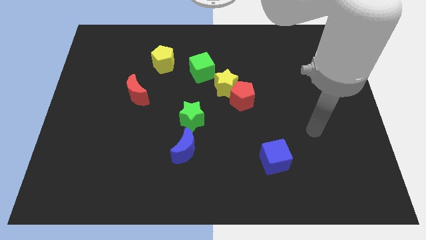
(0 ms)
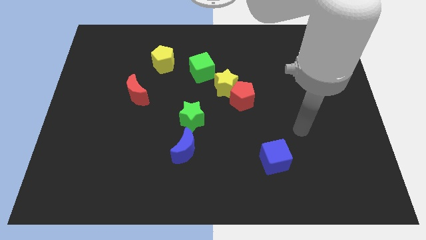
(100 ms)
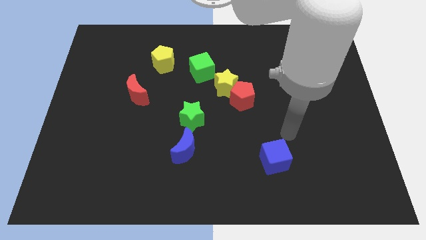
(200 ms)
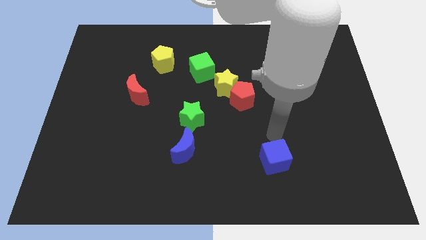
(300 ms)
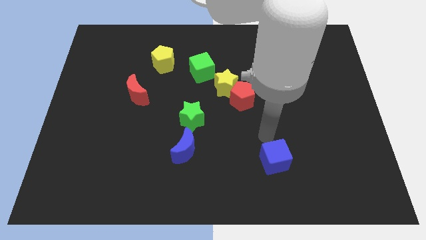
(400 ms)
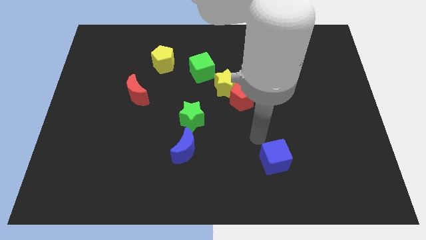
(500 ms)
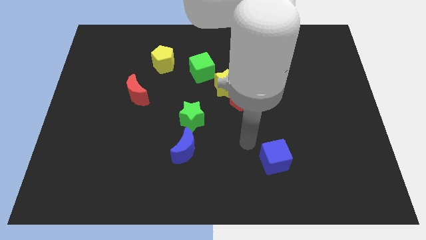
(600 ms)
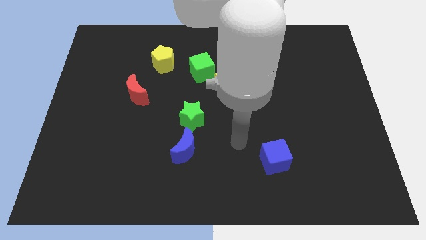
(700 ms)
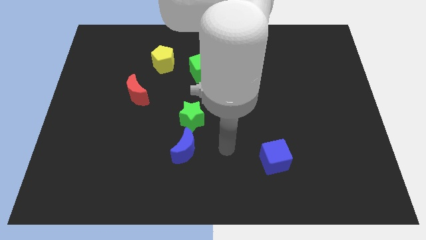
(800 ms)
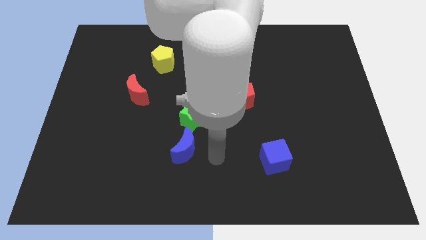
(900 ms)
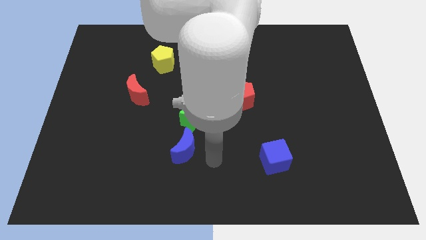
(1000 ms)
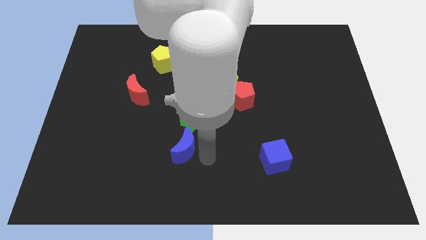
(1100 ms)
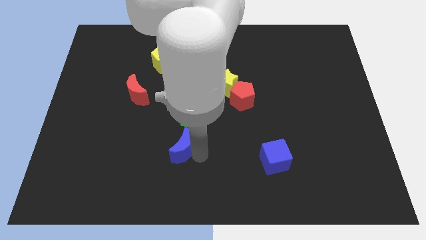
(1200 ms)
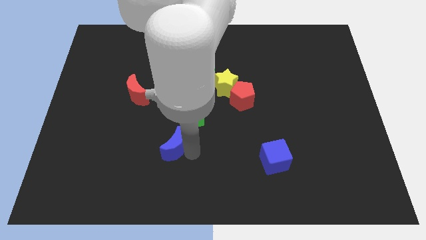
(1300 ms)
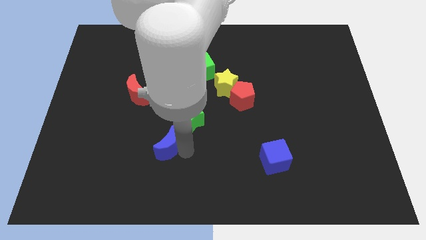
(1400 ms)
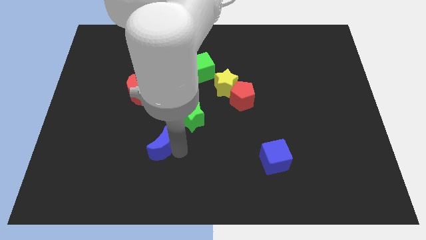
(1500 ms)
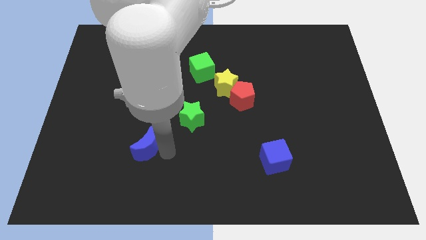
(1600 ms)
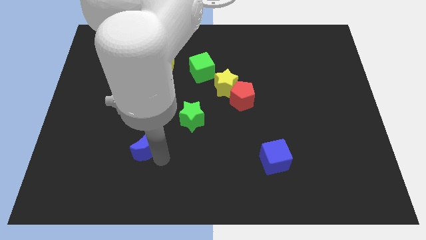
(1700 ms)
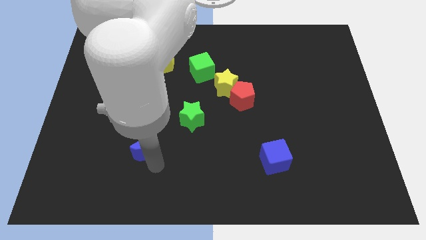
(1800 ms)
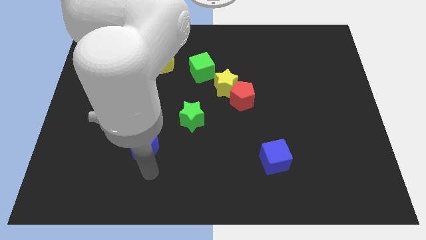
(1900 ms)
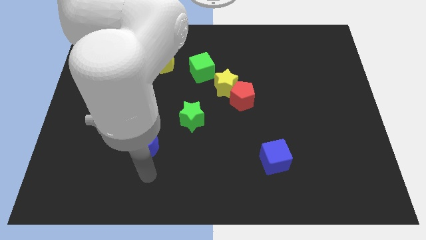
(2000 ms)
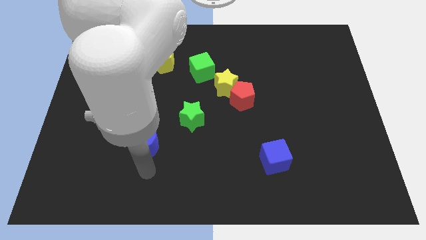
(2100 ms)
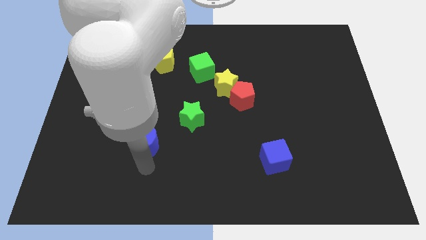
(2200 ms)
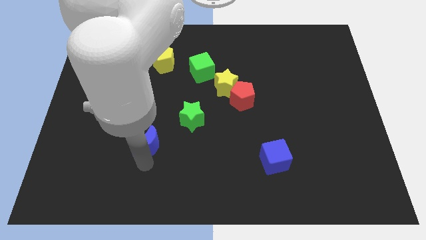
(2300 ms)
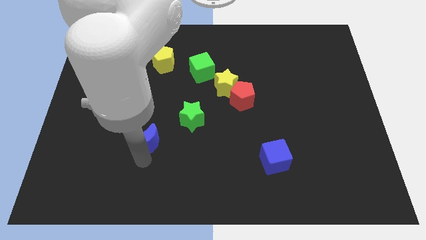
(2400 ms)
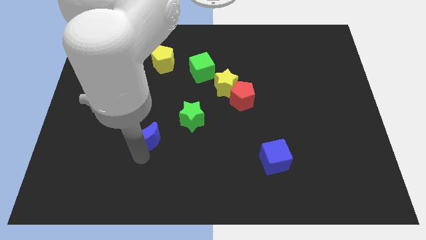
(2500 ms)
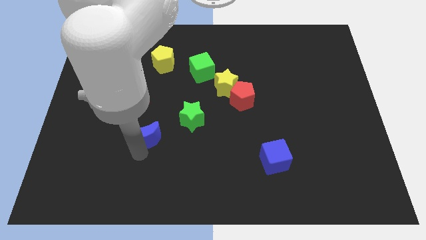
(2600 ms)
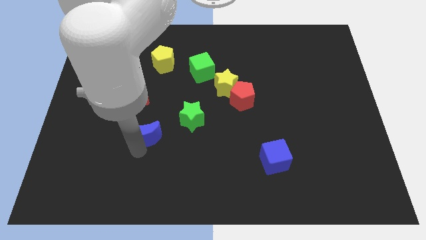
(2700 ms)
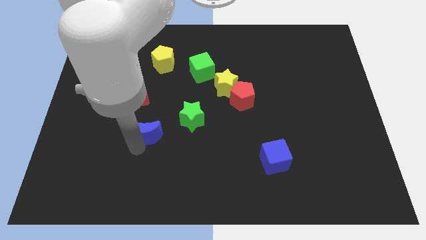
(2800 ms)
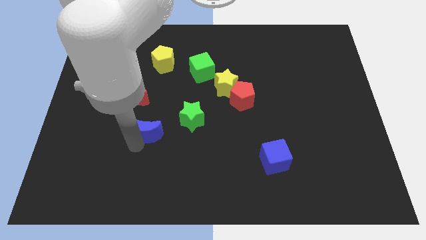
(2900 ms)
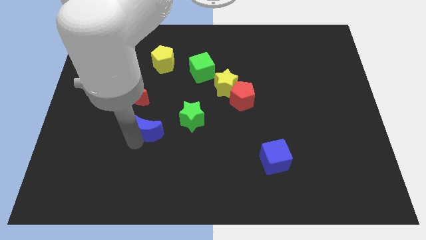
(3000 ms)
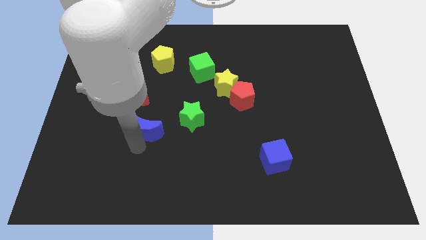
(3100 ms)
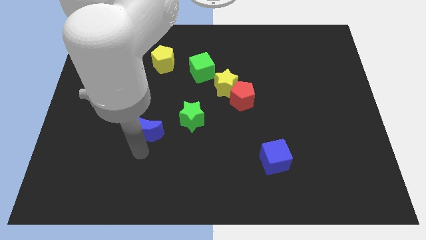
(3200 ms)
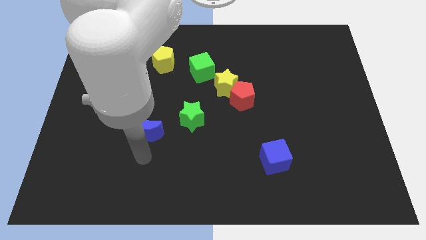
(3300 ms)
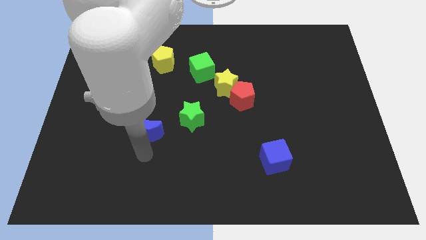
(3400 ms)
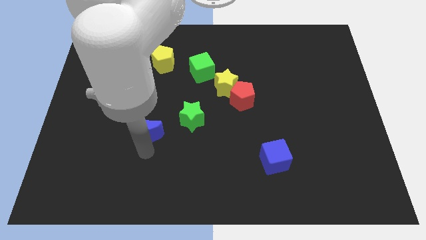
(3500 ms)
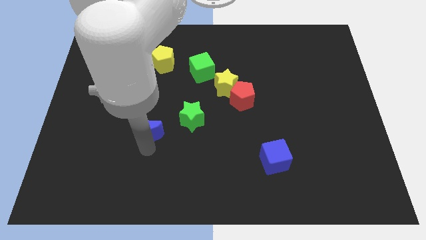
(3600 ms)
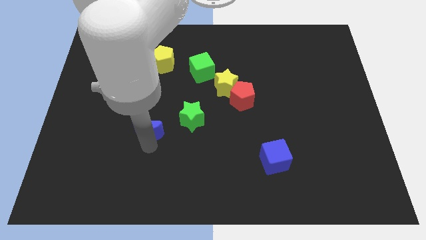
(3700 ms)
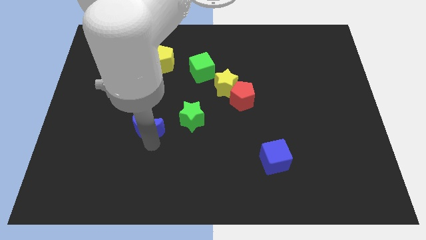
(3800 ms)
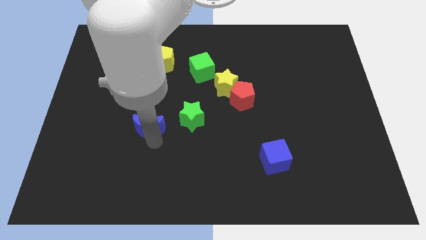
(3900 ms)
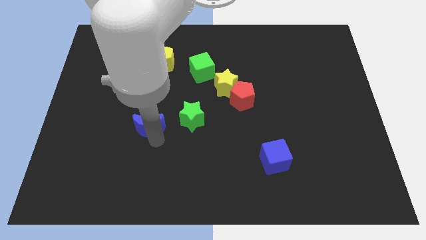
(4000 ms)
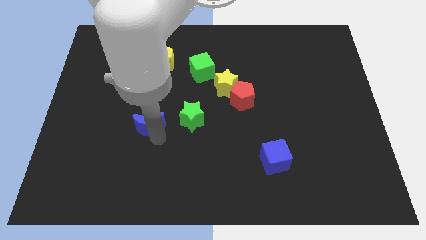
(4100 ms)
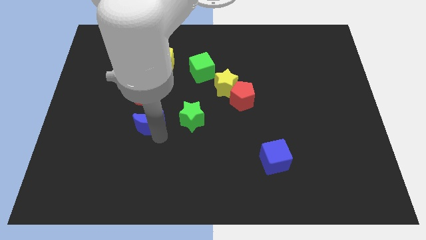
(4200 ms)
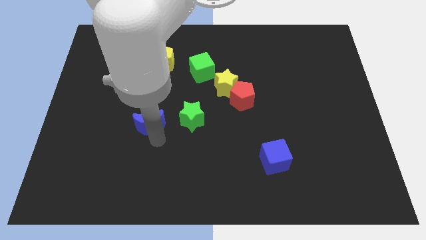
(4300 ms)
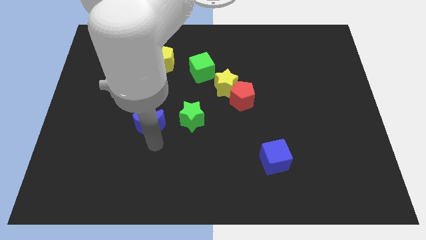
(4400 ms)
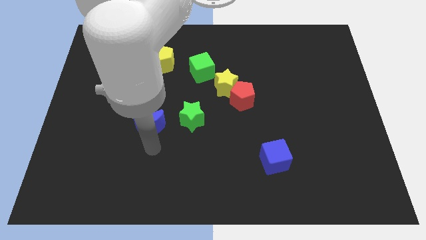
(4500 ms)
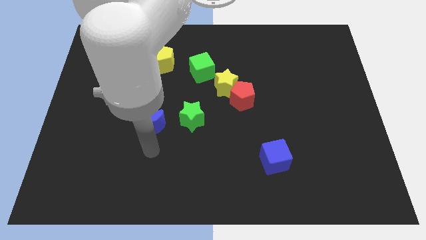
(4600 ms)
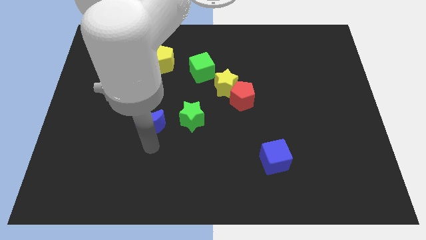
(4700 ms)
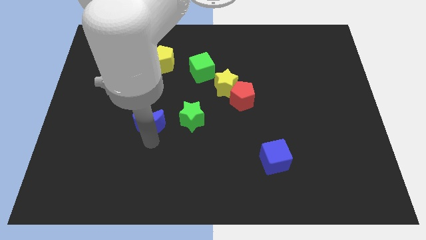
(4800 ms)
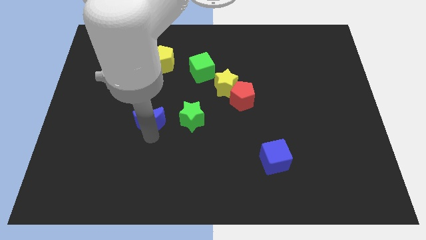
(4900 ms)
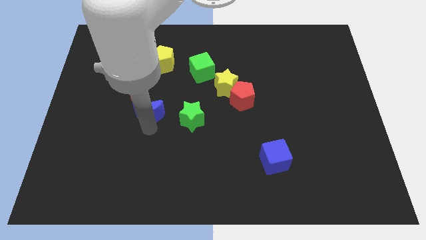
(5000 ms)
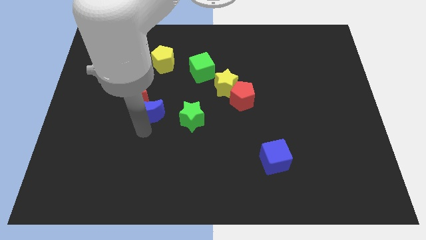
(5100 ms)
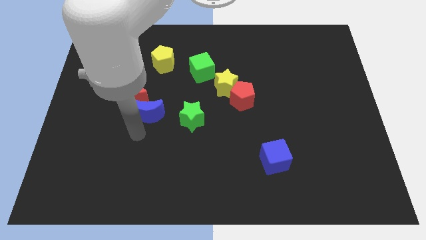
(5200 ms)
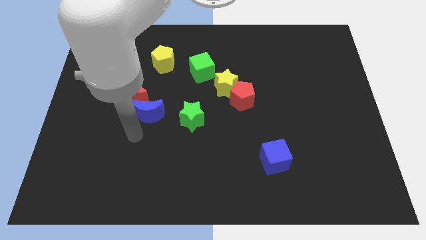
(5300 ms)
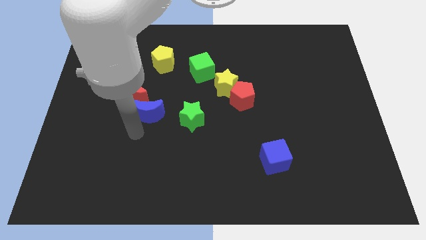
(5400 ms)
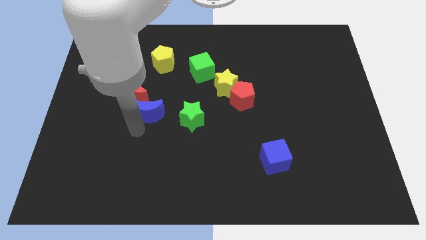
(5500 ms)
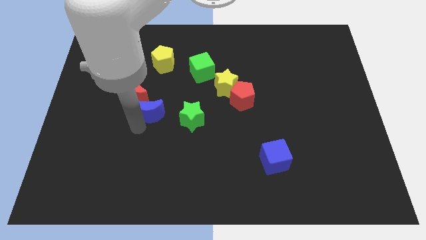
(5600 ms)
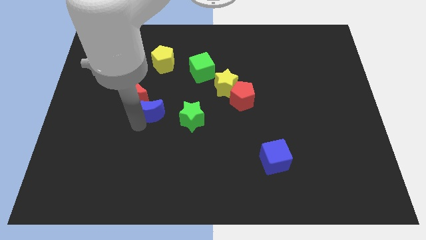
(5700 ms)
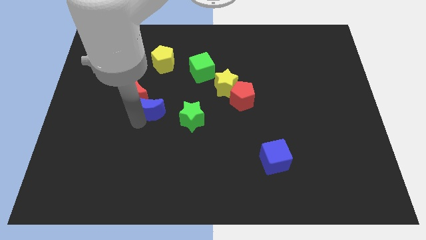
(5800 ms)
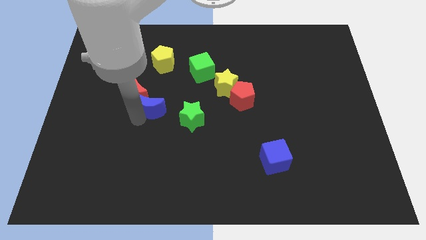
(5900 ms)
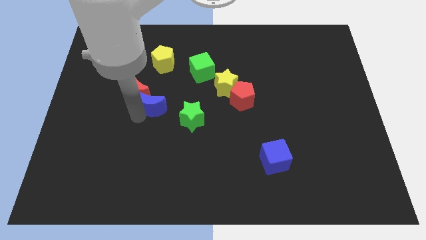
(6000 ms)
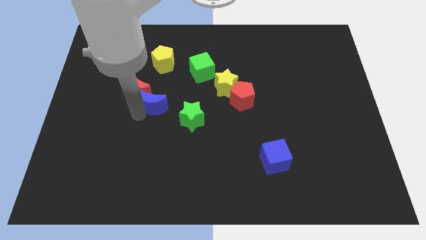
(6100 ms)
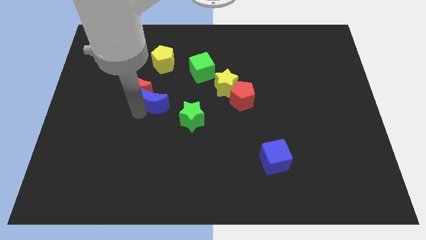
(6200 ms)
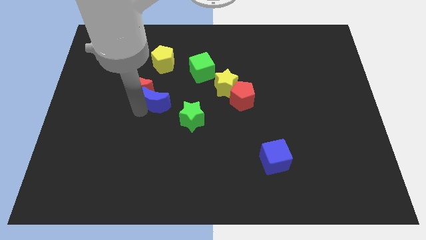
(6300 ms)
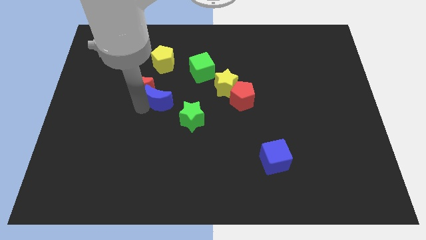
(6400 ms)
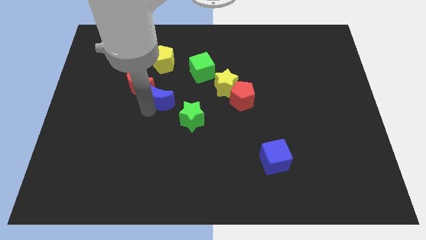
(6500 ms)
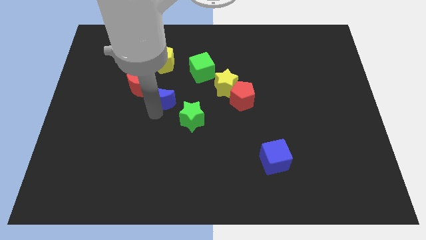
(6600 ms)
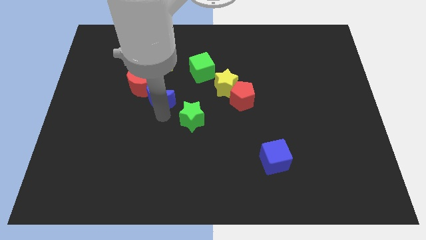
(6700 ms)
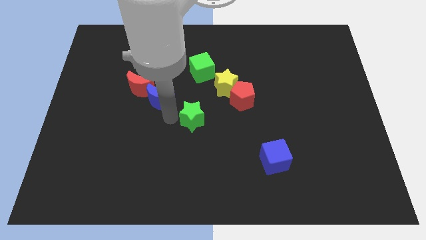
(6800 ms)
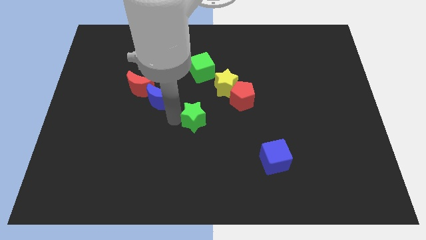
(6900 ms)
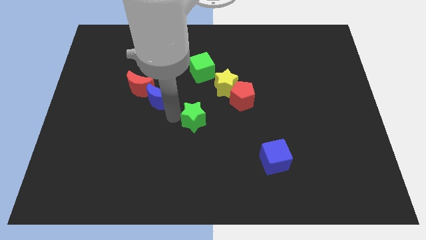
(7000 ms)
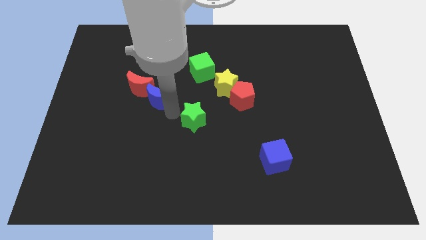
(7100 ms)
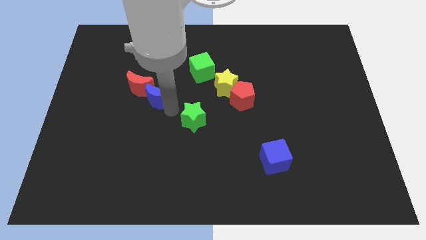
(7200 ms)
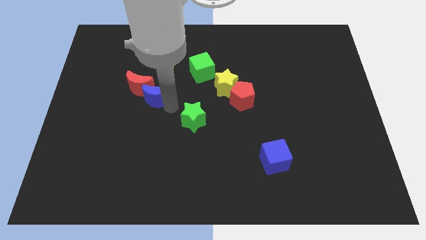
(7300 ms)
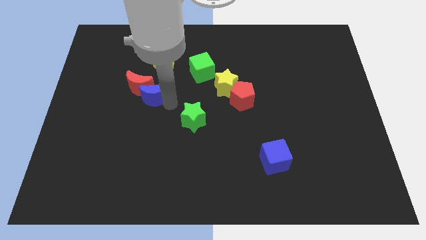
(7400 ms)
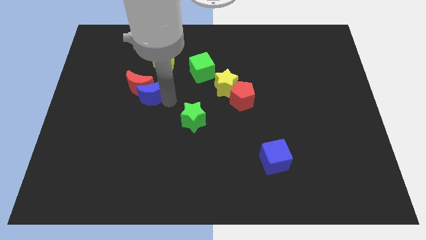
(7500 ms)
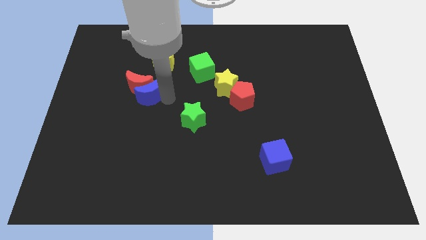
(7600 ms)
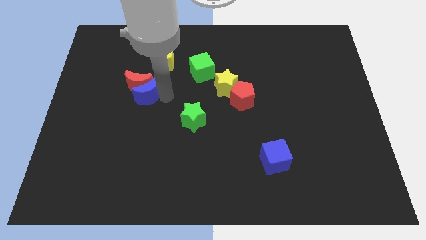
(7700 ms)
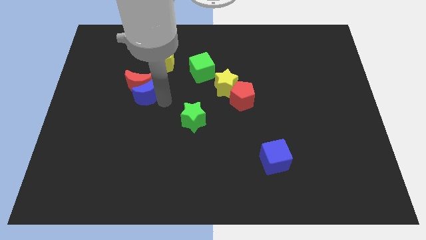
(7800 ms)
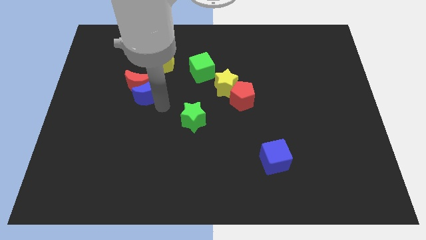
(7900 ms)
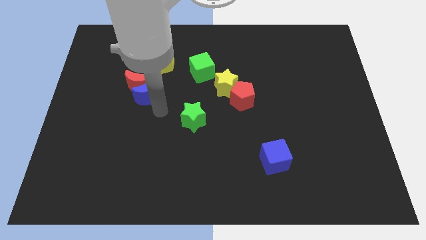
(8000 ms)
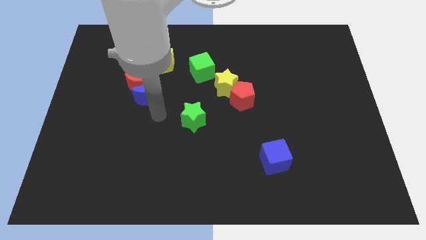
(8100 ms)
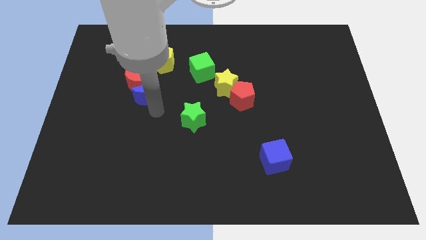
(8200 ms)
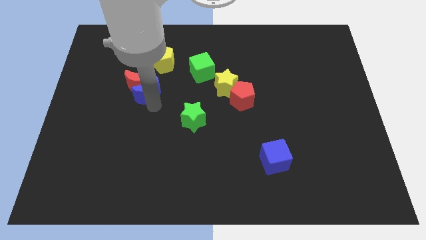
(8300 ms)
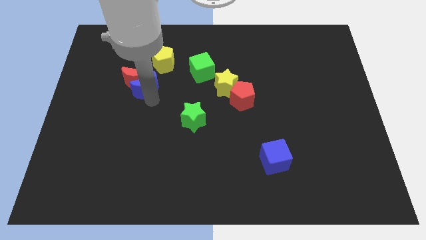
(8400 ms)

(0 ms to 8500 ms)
put the blue moon to the bottom left side of the yellow pentagon
